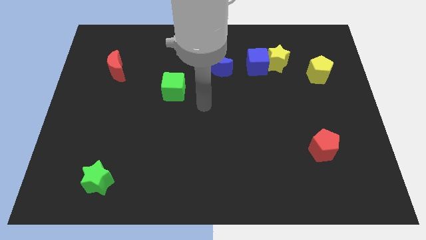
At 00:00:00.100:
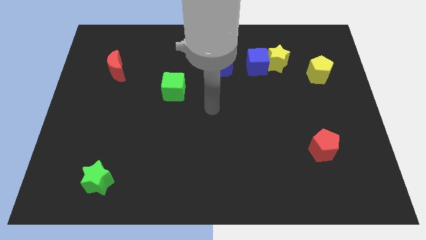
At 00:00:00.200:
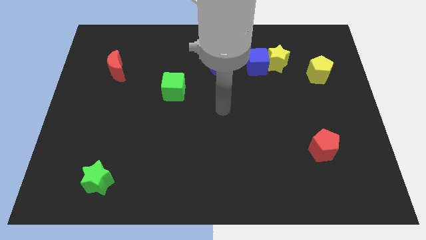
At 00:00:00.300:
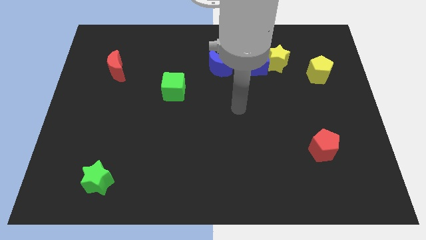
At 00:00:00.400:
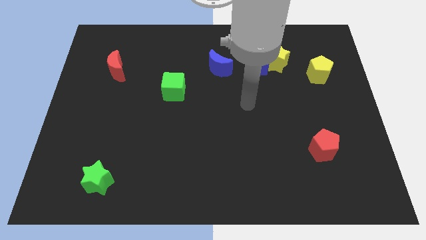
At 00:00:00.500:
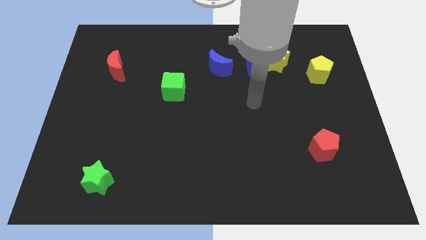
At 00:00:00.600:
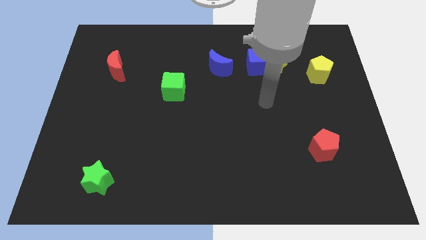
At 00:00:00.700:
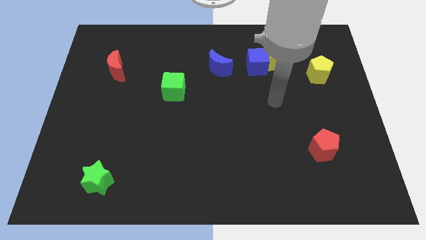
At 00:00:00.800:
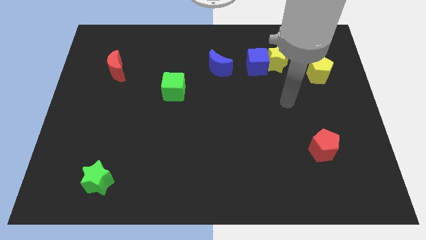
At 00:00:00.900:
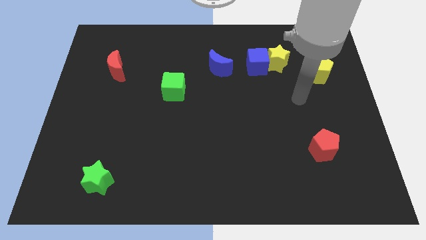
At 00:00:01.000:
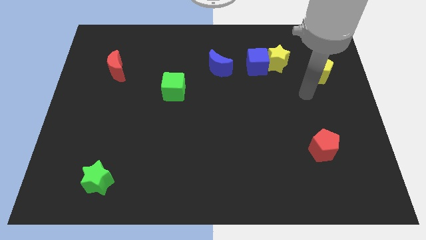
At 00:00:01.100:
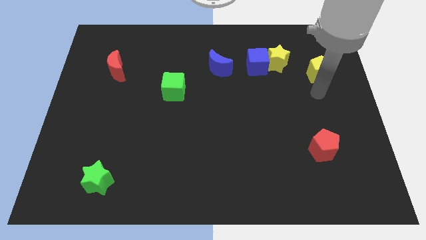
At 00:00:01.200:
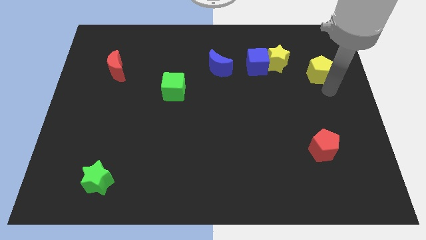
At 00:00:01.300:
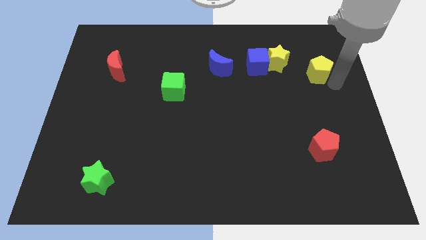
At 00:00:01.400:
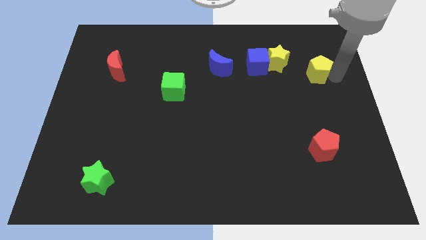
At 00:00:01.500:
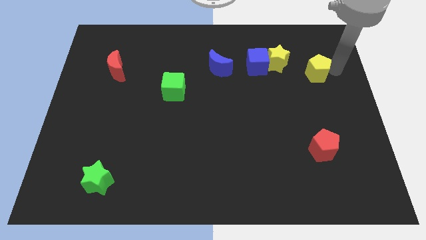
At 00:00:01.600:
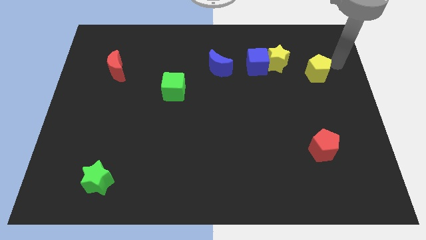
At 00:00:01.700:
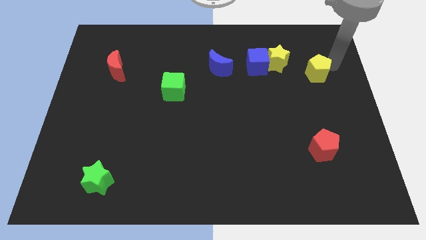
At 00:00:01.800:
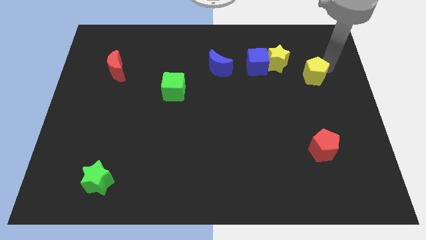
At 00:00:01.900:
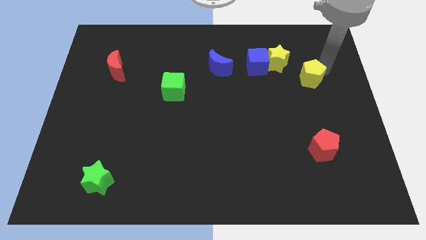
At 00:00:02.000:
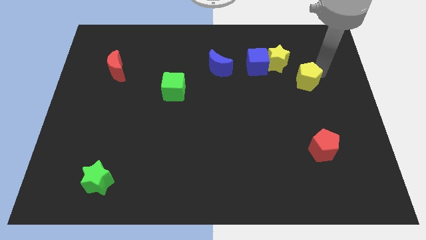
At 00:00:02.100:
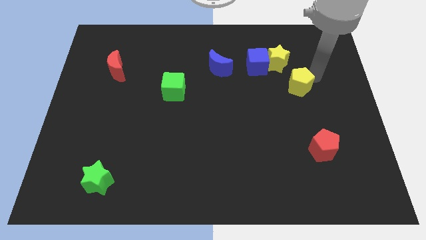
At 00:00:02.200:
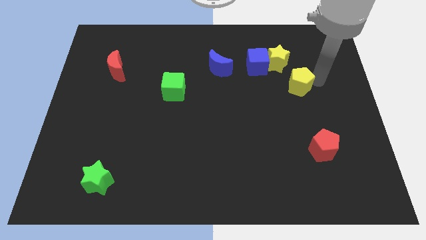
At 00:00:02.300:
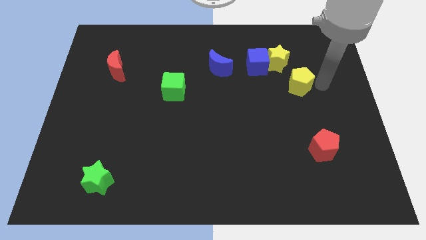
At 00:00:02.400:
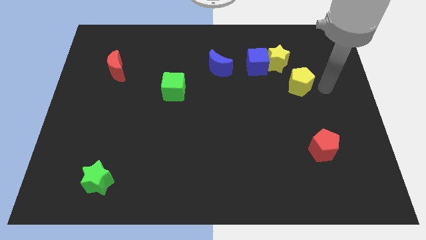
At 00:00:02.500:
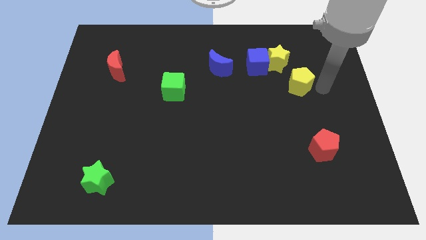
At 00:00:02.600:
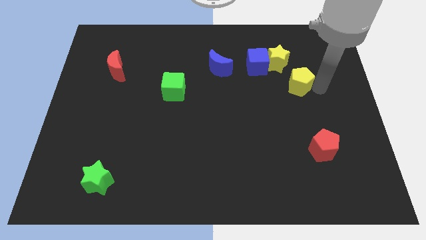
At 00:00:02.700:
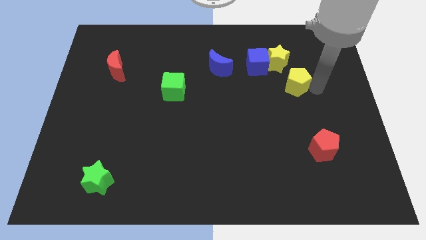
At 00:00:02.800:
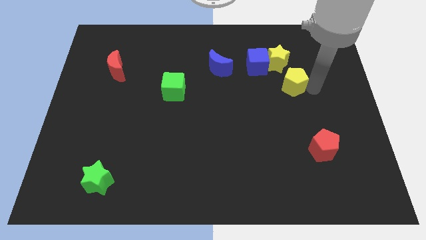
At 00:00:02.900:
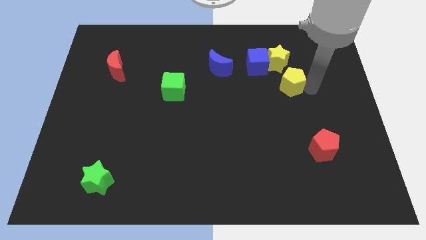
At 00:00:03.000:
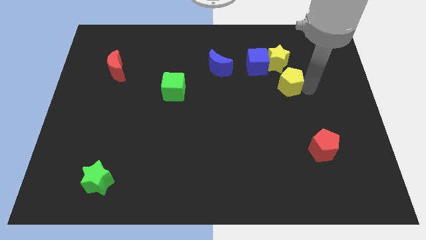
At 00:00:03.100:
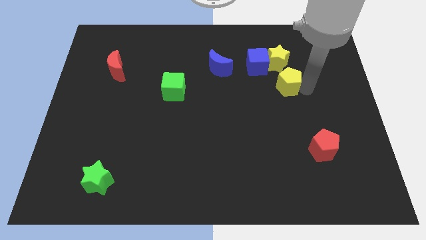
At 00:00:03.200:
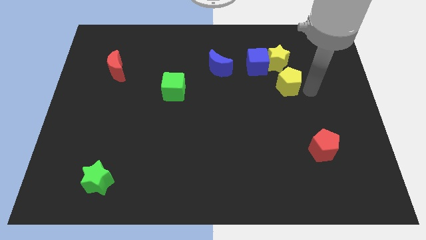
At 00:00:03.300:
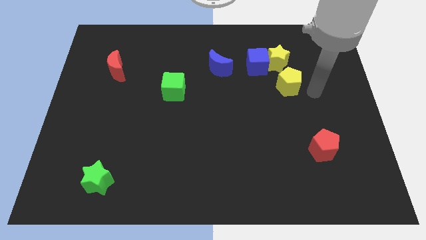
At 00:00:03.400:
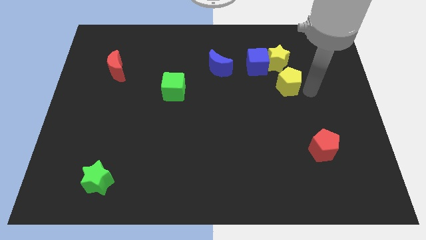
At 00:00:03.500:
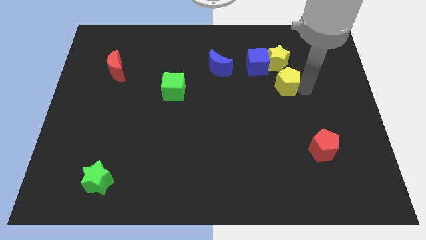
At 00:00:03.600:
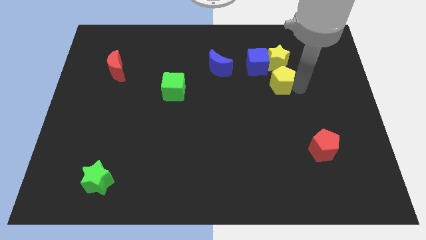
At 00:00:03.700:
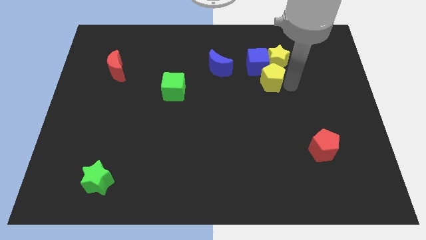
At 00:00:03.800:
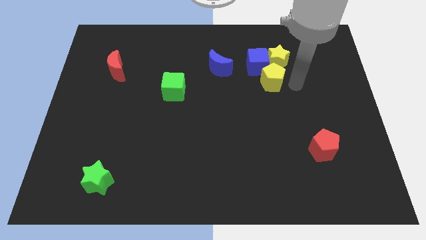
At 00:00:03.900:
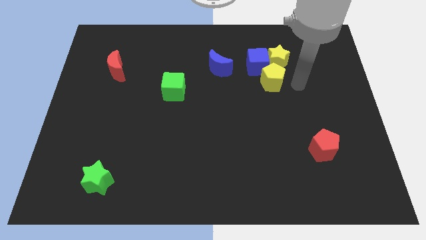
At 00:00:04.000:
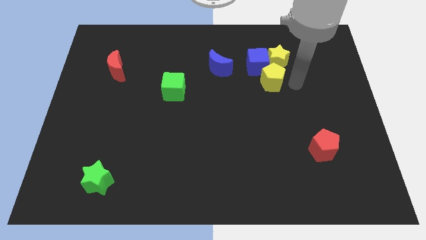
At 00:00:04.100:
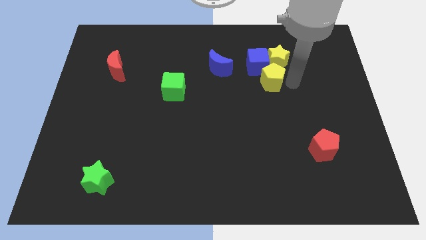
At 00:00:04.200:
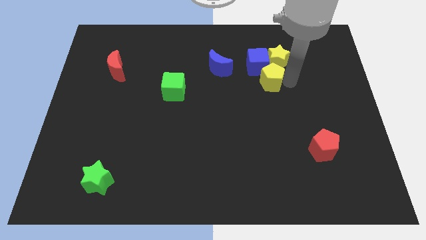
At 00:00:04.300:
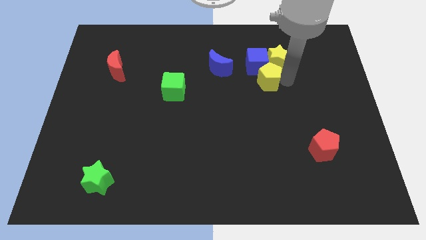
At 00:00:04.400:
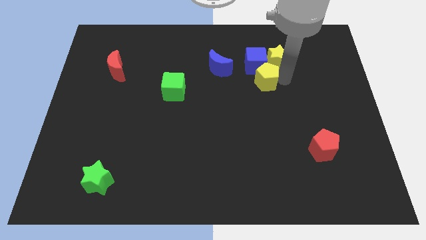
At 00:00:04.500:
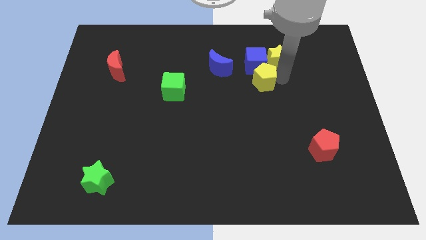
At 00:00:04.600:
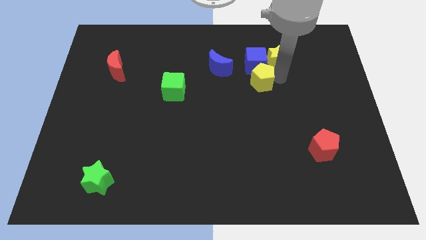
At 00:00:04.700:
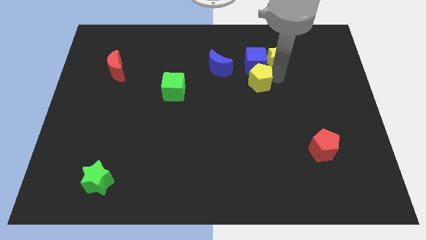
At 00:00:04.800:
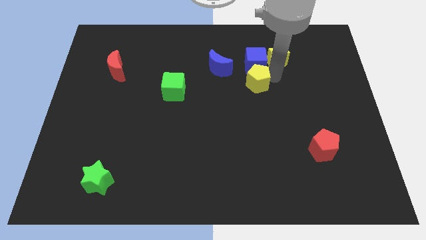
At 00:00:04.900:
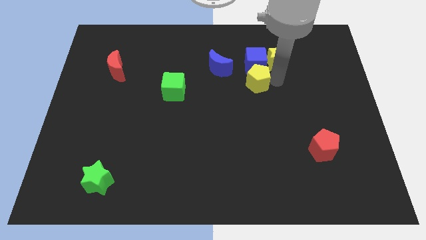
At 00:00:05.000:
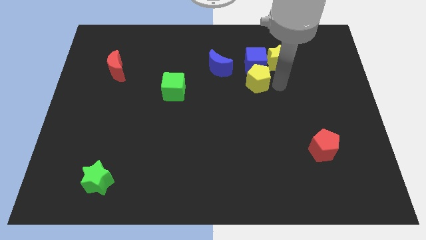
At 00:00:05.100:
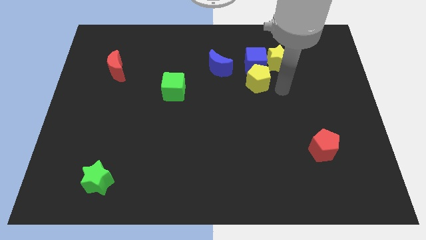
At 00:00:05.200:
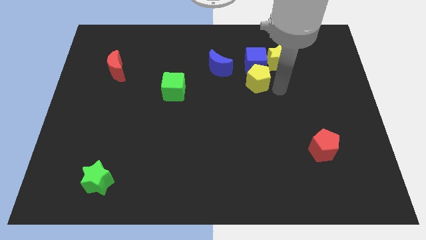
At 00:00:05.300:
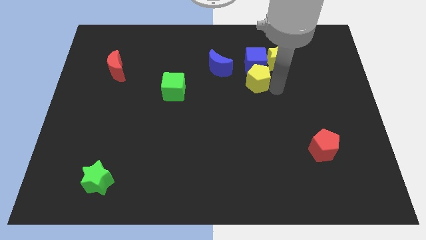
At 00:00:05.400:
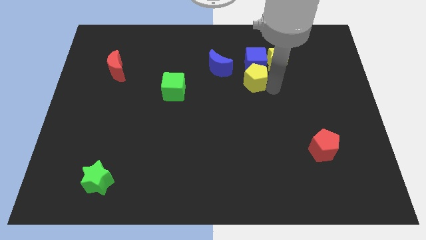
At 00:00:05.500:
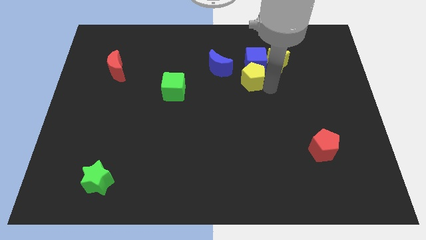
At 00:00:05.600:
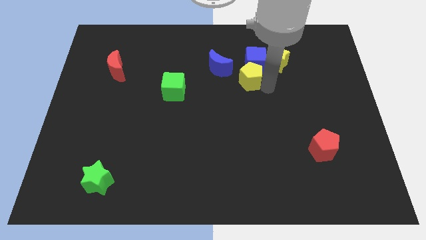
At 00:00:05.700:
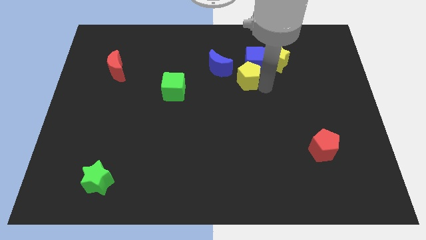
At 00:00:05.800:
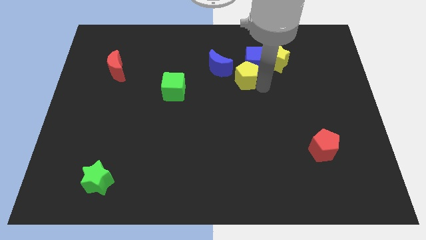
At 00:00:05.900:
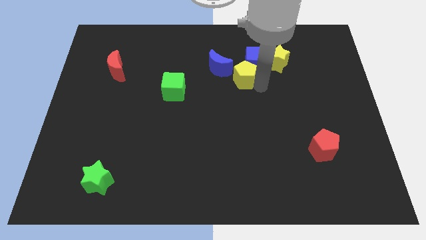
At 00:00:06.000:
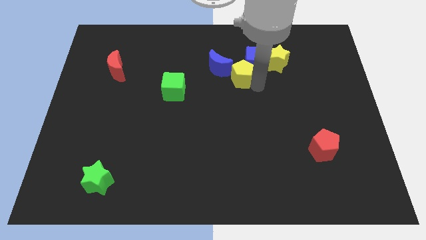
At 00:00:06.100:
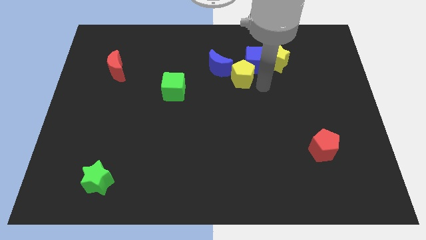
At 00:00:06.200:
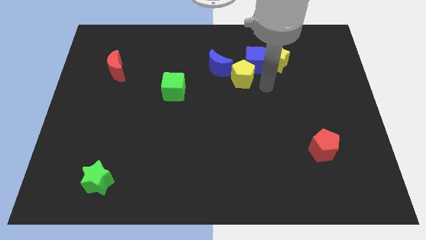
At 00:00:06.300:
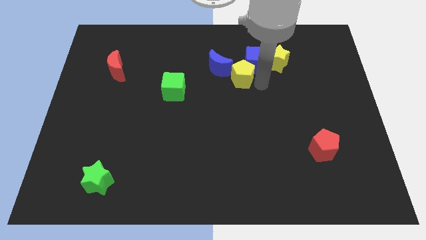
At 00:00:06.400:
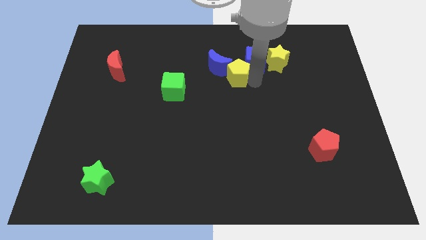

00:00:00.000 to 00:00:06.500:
push the yellow pentagon towards the blue moon

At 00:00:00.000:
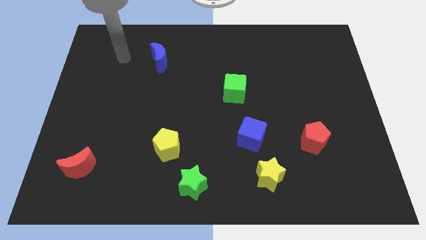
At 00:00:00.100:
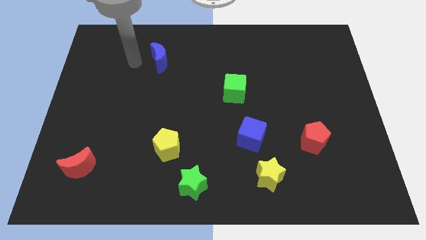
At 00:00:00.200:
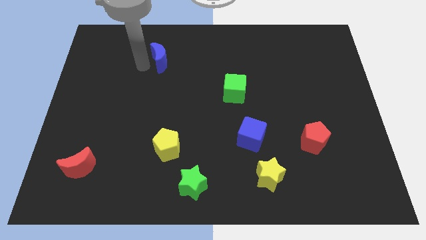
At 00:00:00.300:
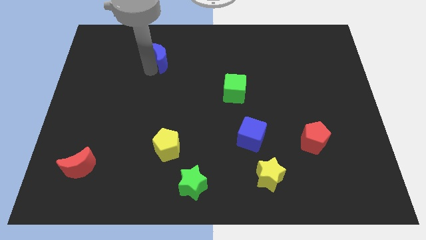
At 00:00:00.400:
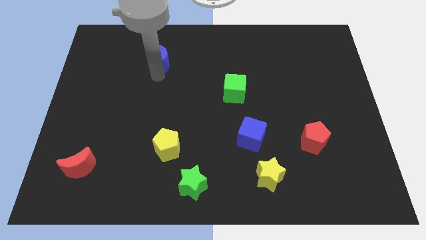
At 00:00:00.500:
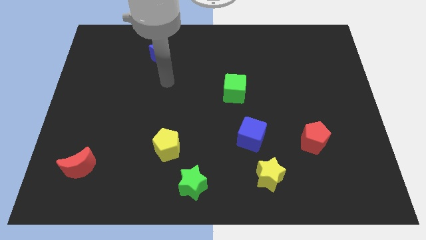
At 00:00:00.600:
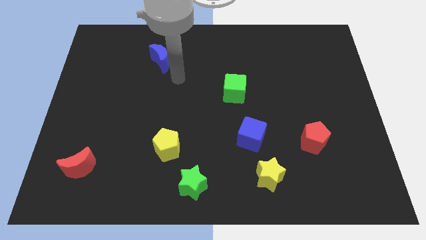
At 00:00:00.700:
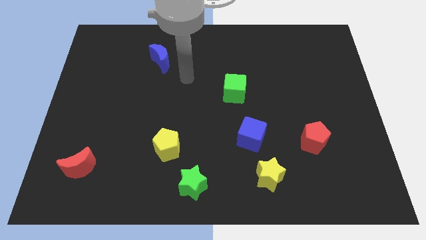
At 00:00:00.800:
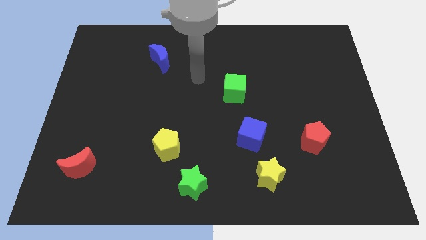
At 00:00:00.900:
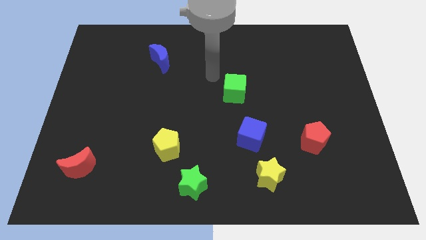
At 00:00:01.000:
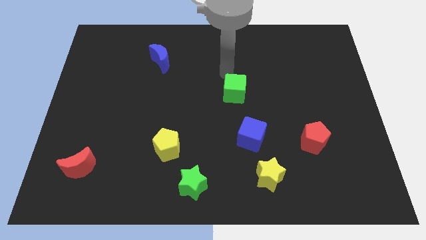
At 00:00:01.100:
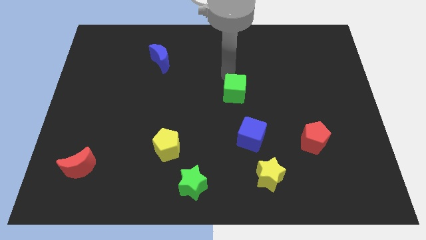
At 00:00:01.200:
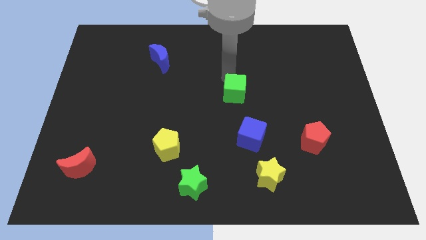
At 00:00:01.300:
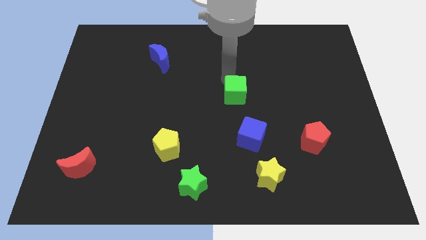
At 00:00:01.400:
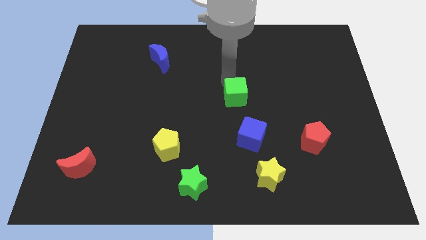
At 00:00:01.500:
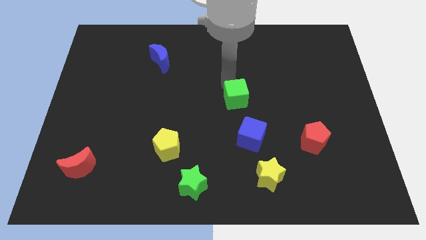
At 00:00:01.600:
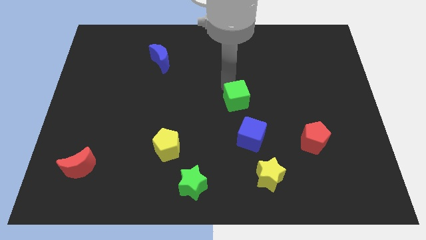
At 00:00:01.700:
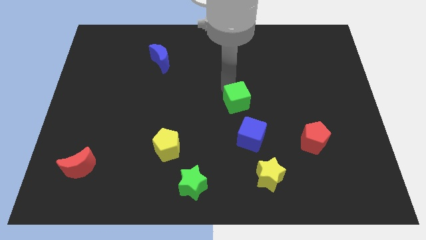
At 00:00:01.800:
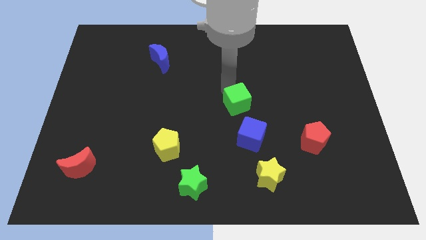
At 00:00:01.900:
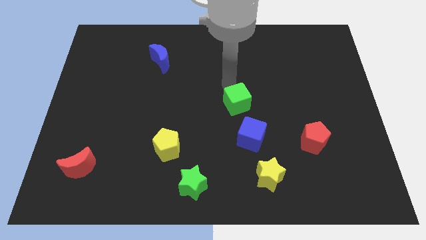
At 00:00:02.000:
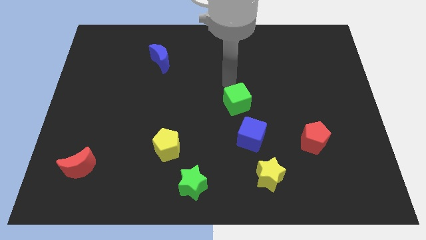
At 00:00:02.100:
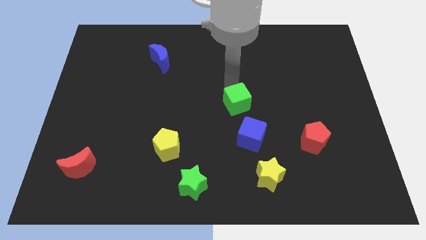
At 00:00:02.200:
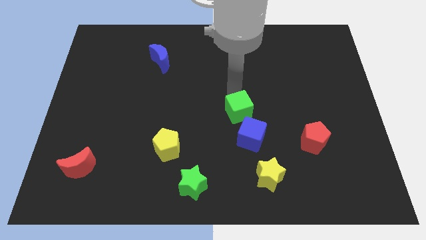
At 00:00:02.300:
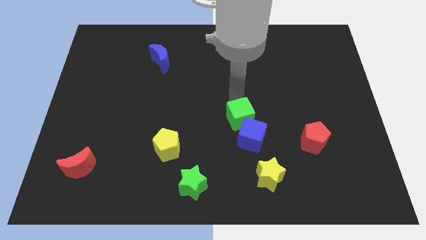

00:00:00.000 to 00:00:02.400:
push the green cube towards the blue cube
